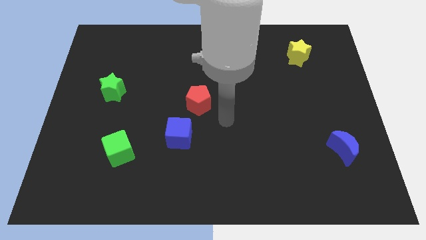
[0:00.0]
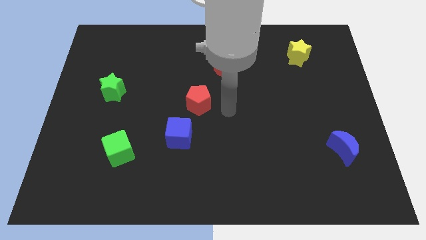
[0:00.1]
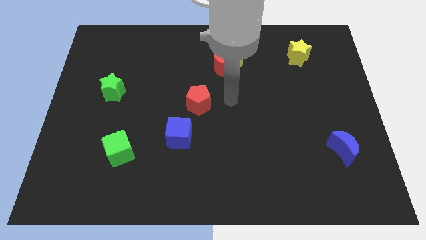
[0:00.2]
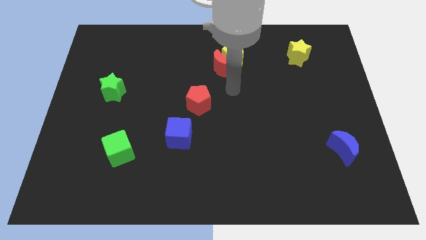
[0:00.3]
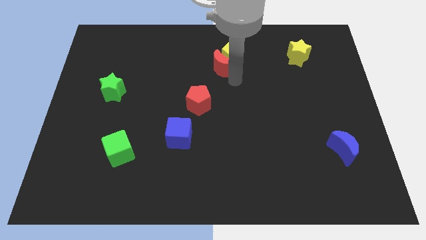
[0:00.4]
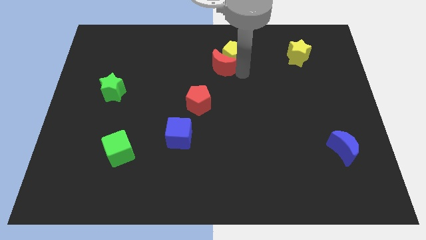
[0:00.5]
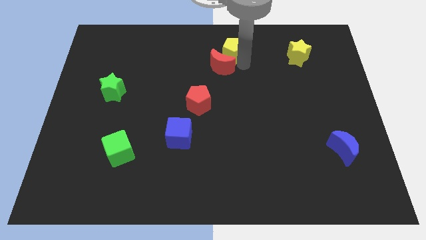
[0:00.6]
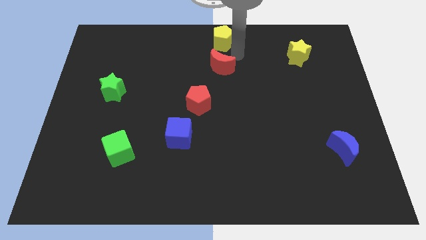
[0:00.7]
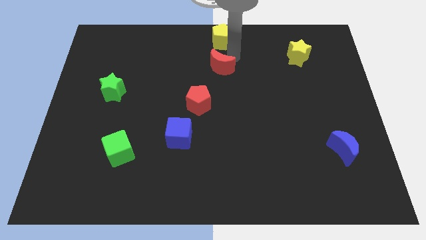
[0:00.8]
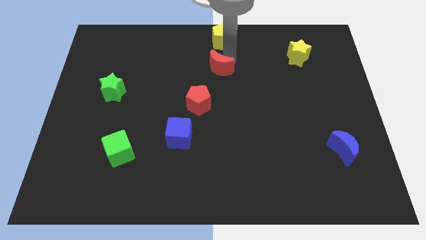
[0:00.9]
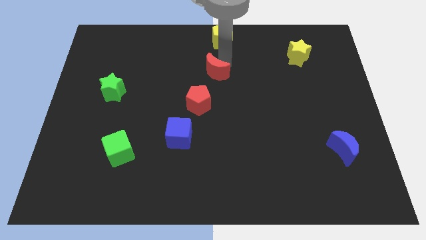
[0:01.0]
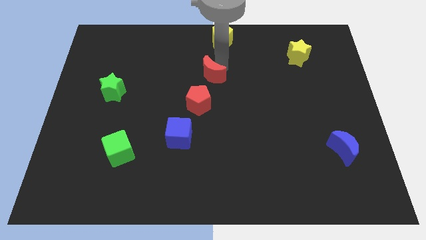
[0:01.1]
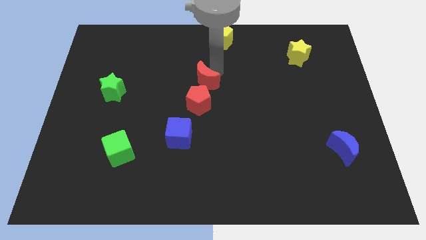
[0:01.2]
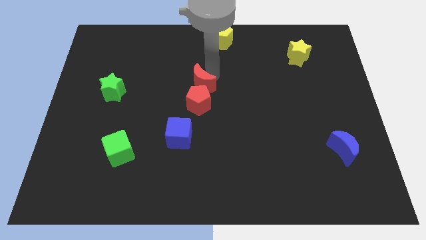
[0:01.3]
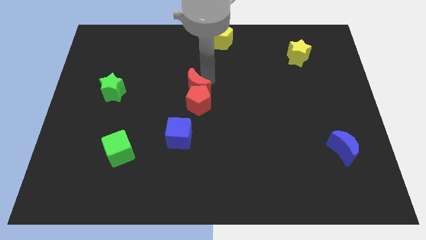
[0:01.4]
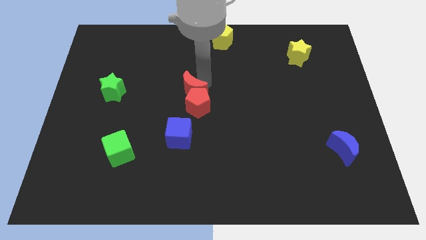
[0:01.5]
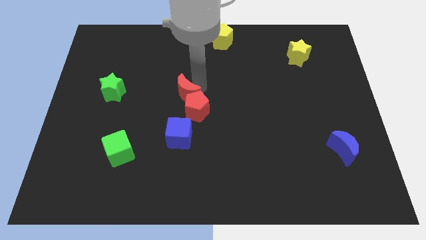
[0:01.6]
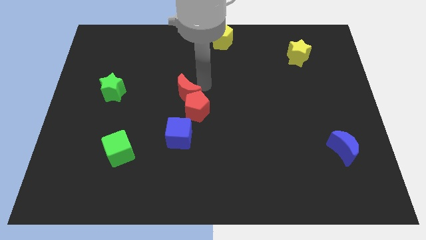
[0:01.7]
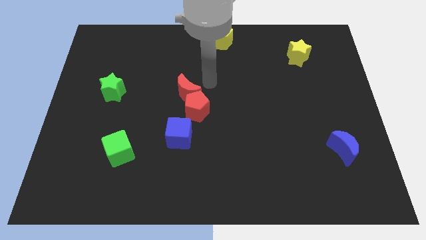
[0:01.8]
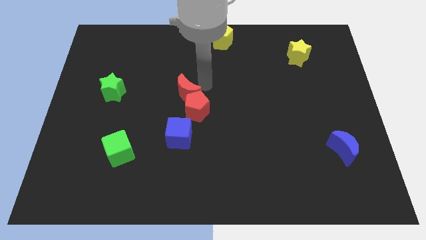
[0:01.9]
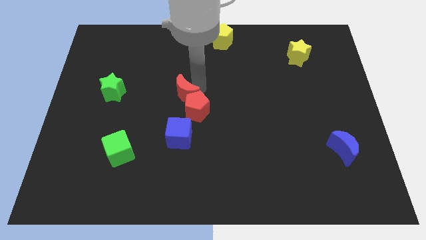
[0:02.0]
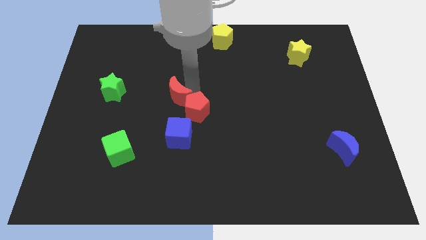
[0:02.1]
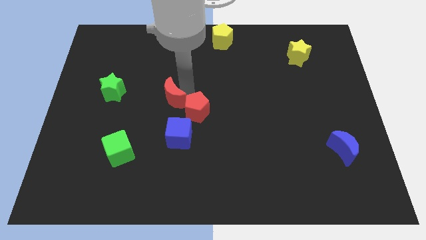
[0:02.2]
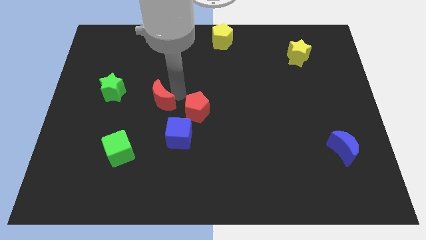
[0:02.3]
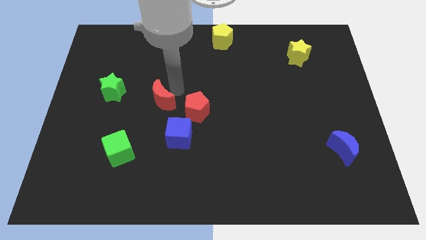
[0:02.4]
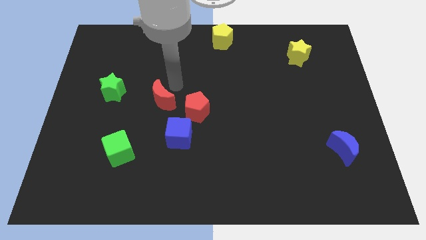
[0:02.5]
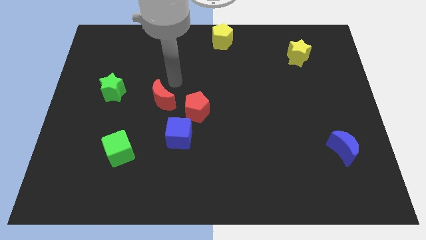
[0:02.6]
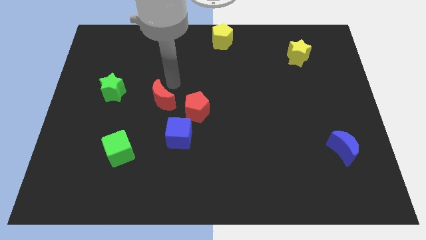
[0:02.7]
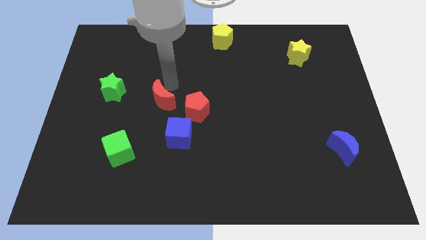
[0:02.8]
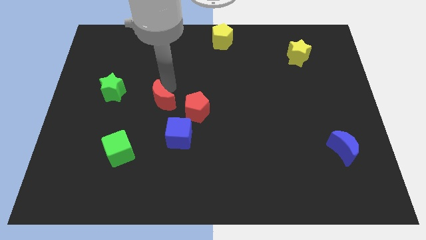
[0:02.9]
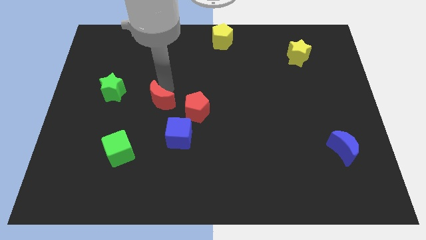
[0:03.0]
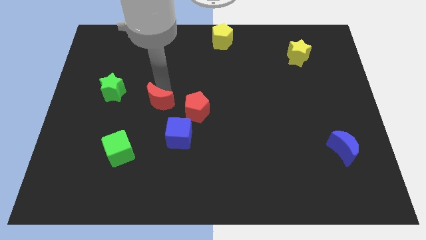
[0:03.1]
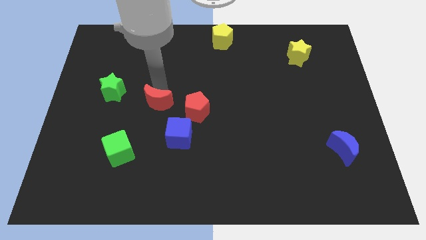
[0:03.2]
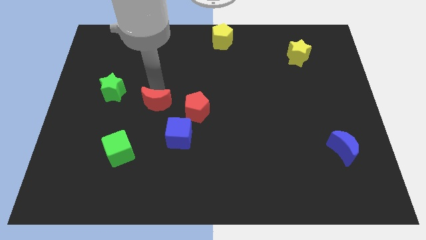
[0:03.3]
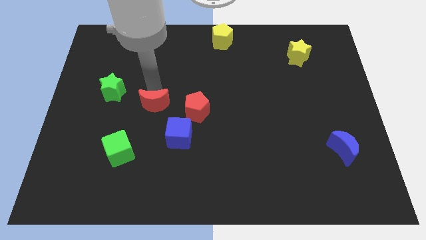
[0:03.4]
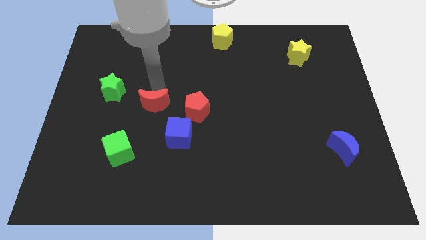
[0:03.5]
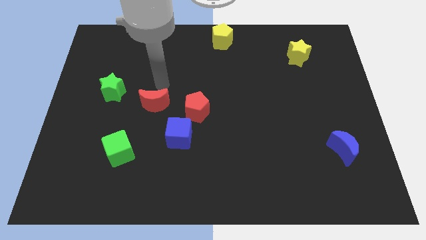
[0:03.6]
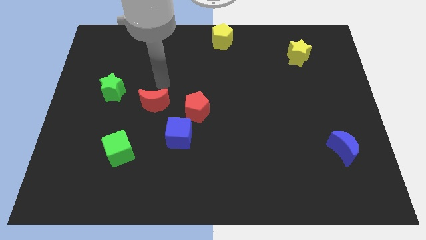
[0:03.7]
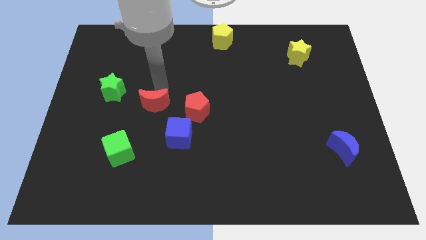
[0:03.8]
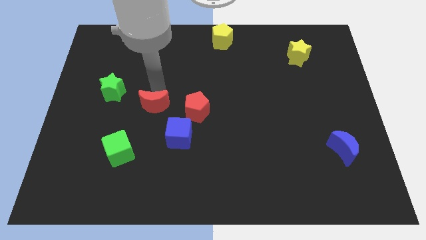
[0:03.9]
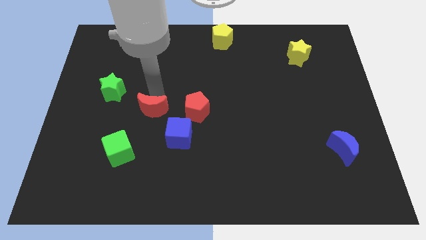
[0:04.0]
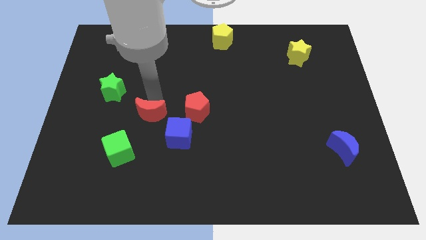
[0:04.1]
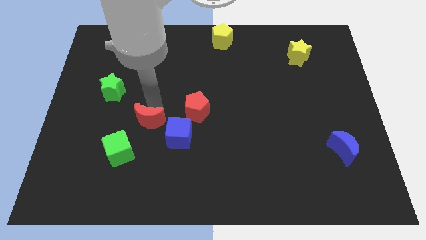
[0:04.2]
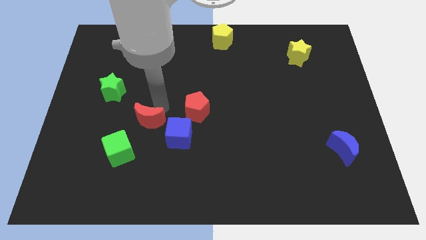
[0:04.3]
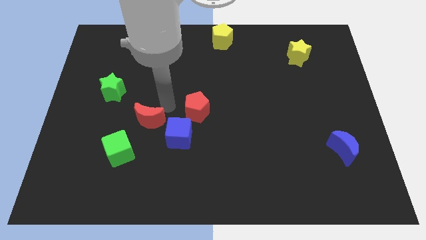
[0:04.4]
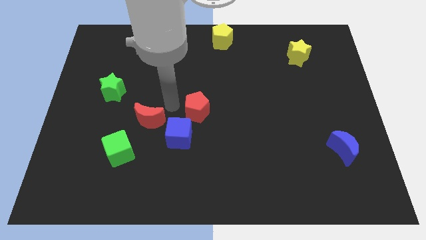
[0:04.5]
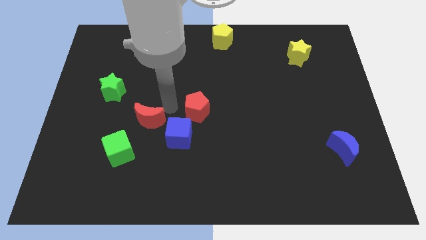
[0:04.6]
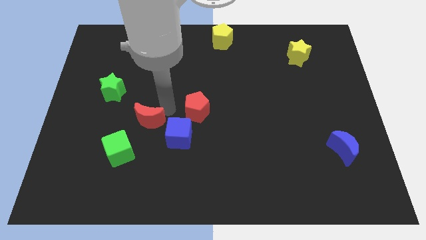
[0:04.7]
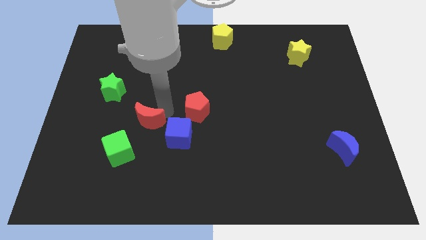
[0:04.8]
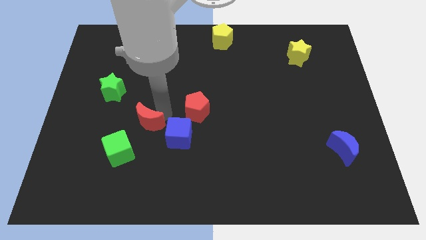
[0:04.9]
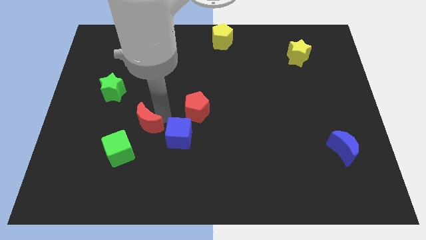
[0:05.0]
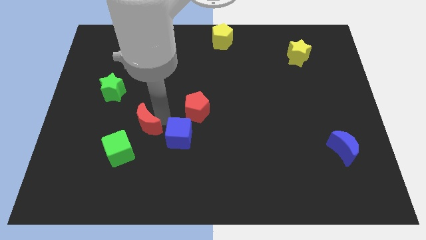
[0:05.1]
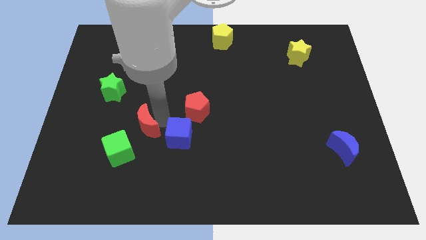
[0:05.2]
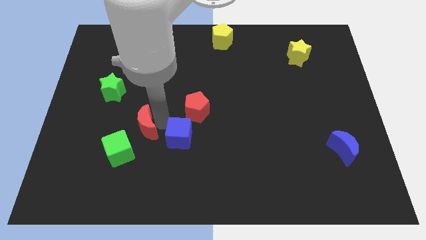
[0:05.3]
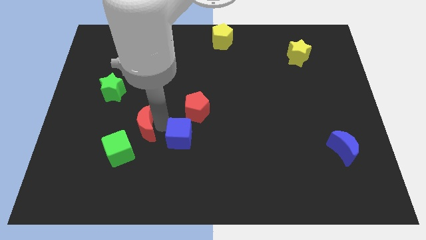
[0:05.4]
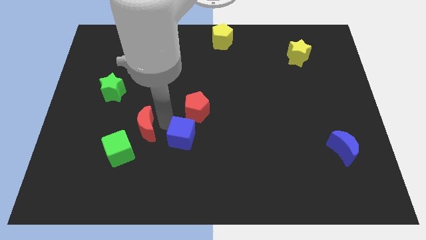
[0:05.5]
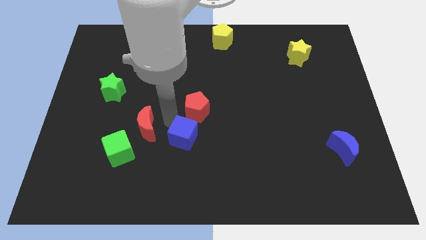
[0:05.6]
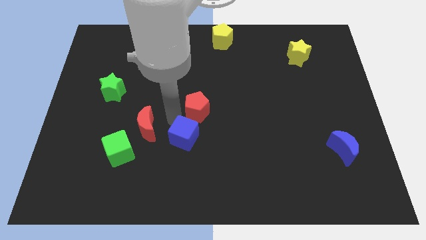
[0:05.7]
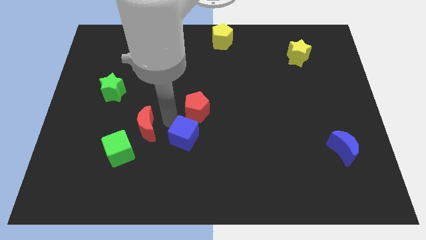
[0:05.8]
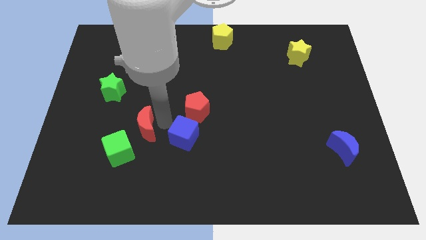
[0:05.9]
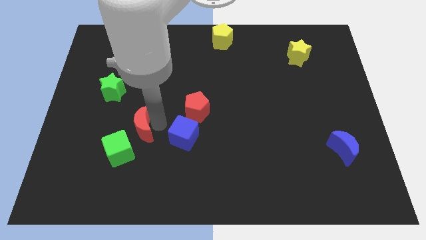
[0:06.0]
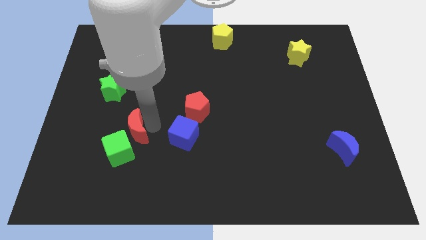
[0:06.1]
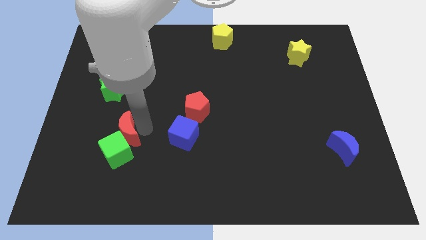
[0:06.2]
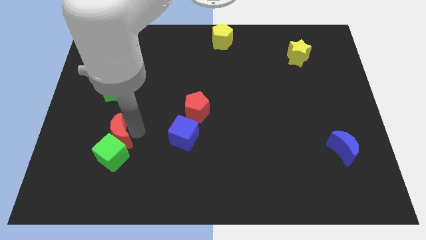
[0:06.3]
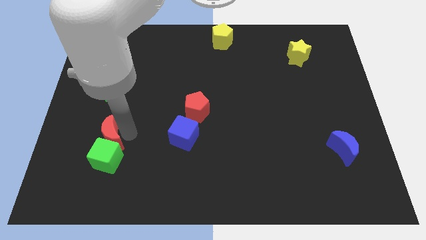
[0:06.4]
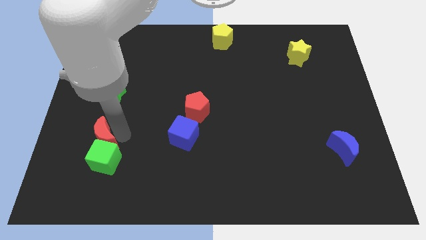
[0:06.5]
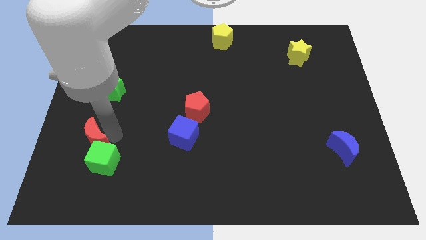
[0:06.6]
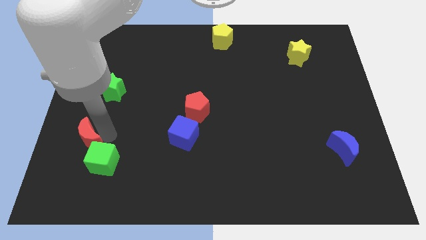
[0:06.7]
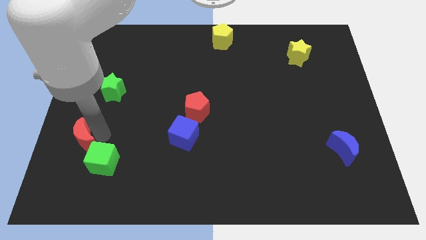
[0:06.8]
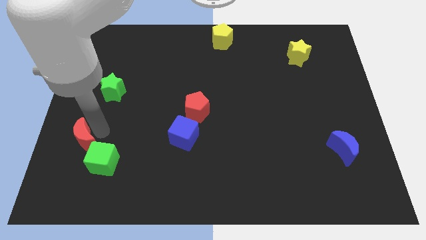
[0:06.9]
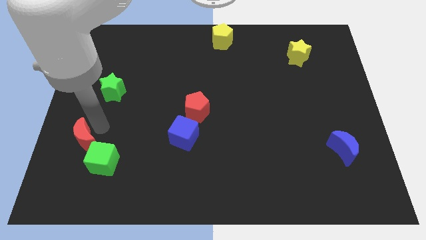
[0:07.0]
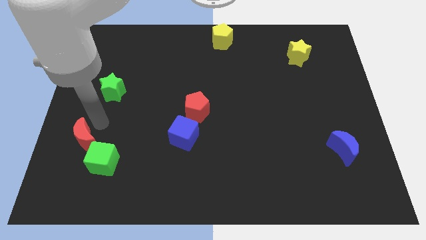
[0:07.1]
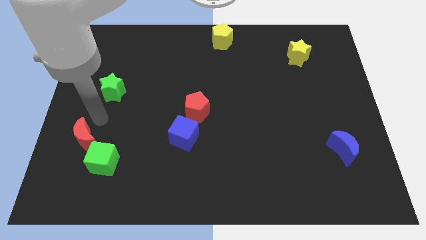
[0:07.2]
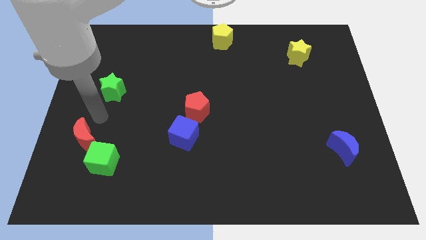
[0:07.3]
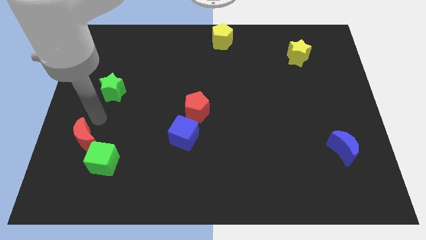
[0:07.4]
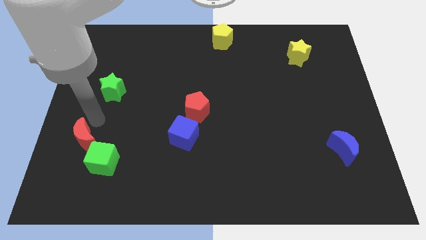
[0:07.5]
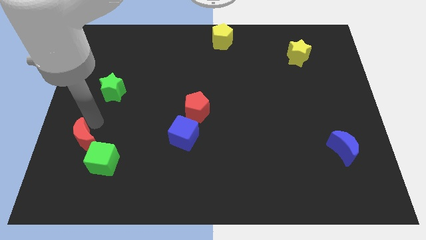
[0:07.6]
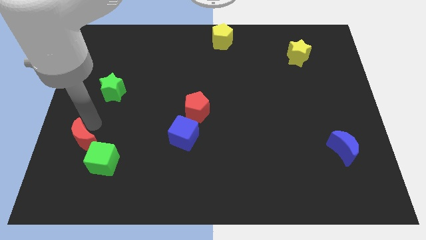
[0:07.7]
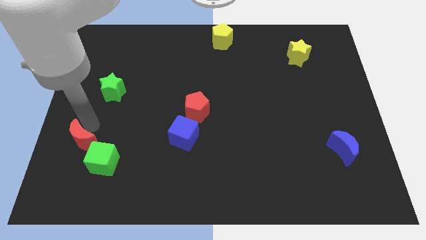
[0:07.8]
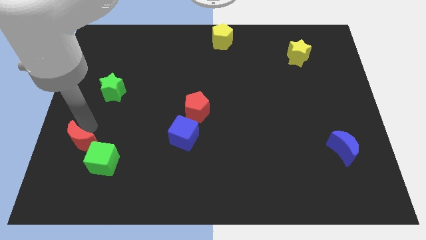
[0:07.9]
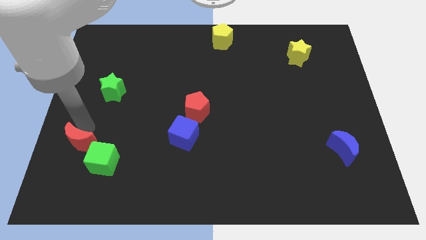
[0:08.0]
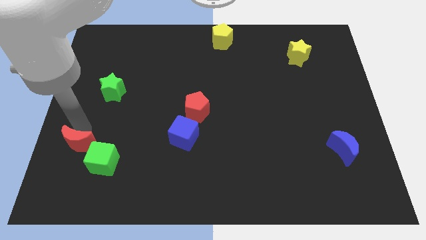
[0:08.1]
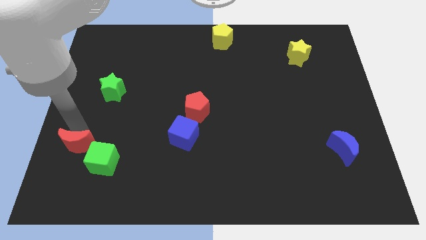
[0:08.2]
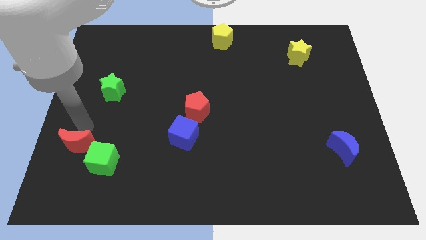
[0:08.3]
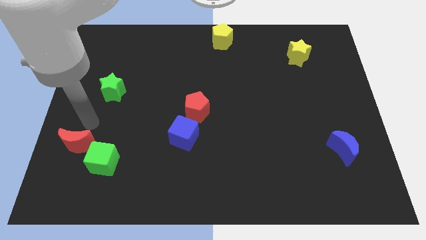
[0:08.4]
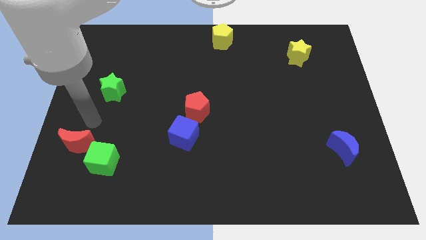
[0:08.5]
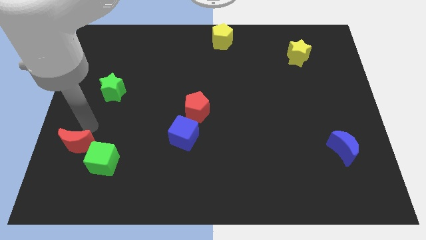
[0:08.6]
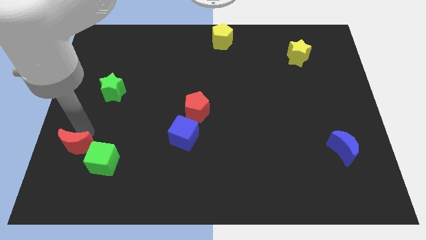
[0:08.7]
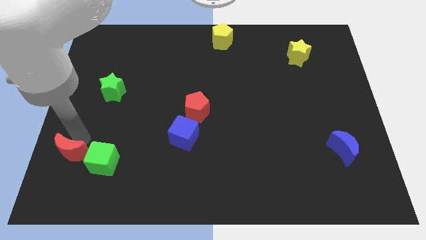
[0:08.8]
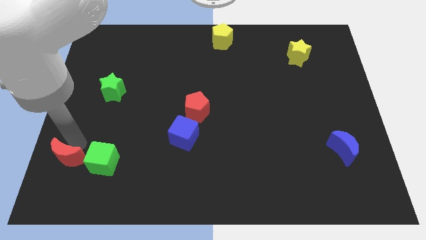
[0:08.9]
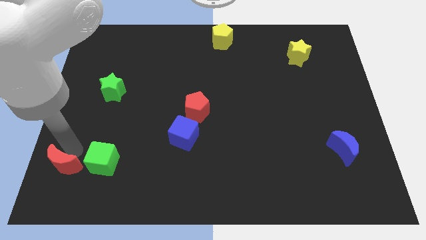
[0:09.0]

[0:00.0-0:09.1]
put the red moon to the bottom left of the board
